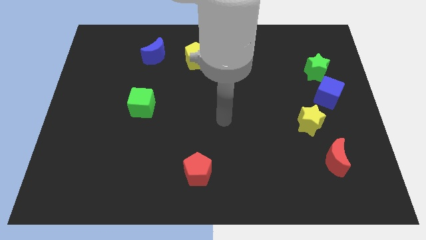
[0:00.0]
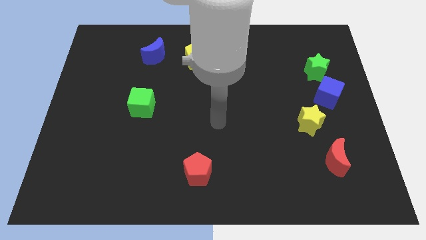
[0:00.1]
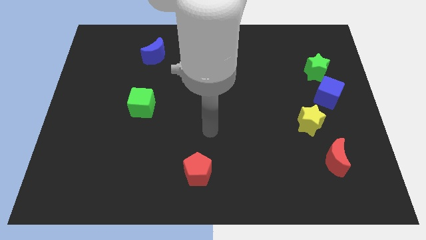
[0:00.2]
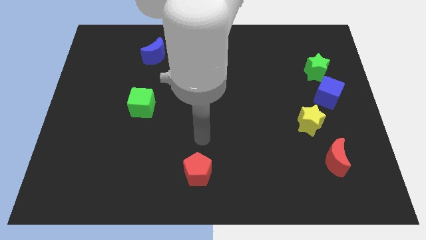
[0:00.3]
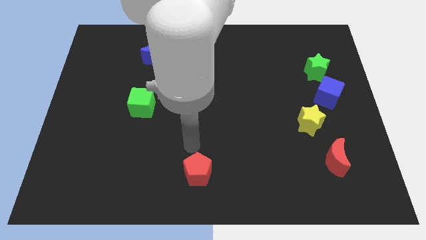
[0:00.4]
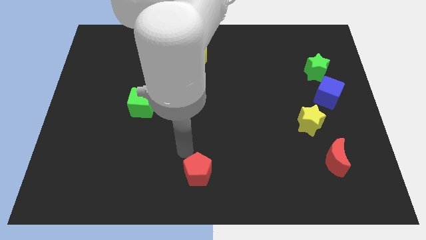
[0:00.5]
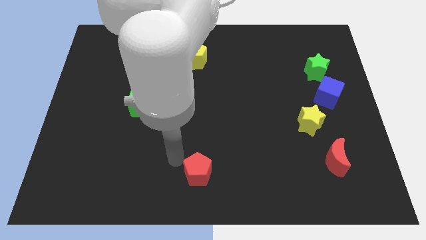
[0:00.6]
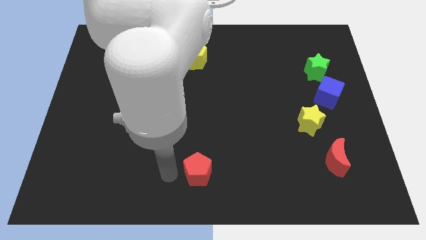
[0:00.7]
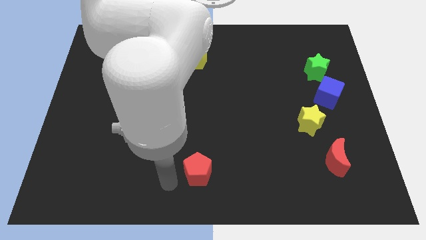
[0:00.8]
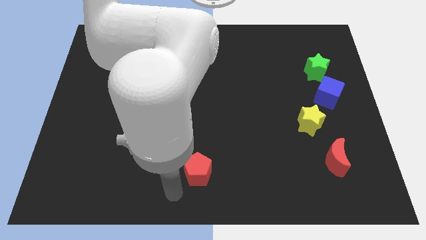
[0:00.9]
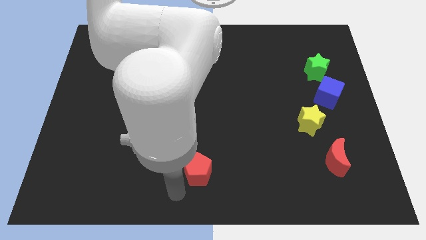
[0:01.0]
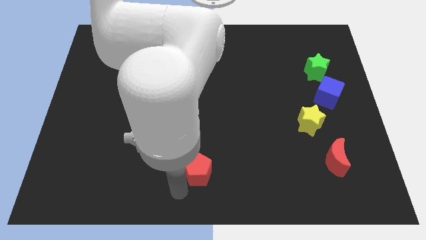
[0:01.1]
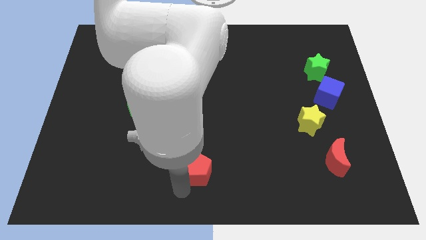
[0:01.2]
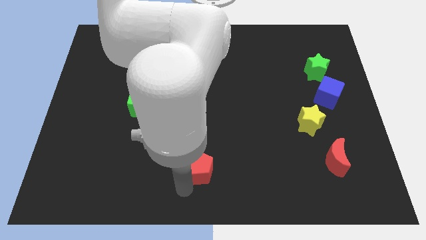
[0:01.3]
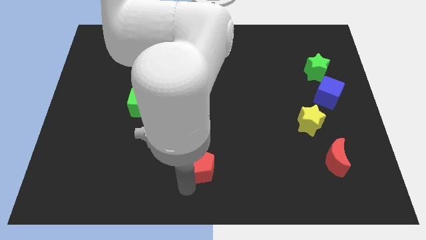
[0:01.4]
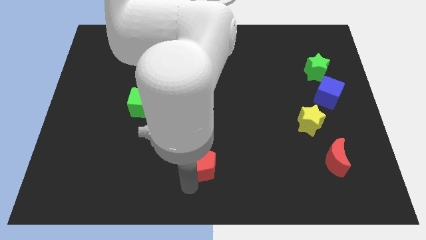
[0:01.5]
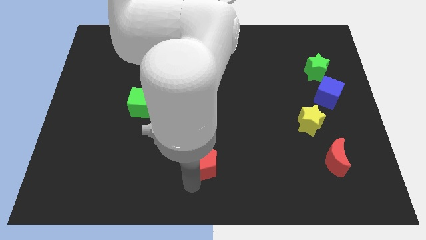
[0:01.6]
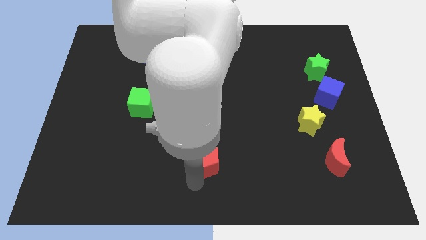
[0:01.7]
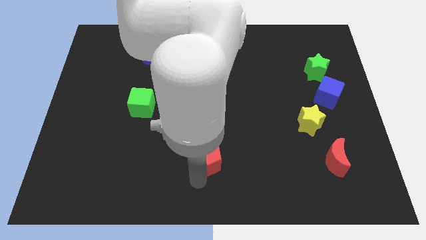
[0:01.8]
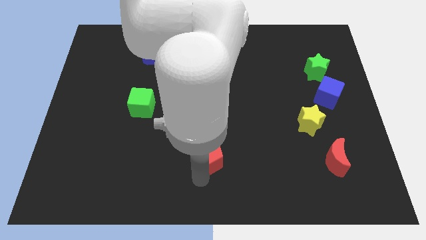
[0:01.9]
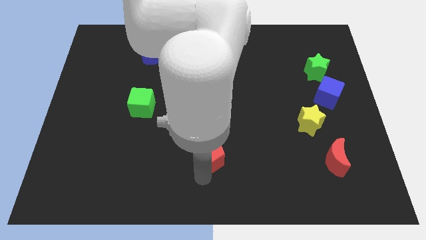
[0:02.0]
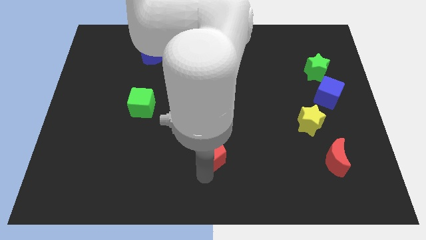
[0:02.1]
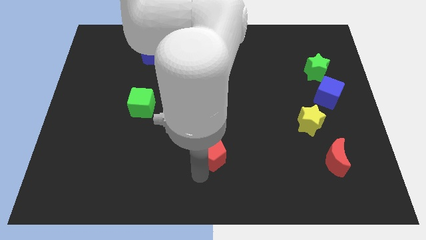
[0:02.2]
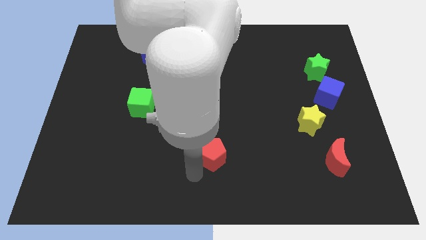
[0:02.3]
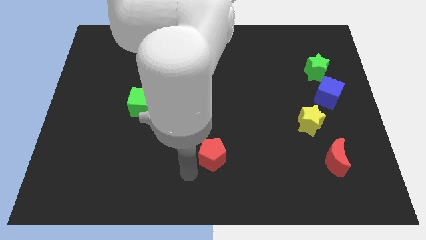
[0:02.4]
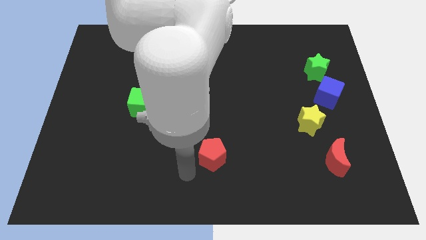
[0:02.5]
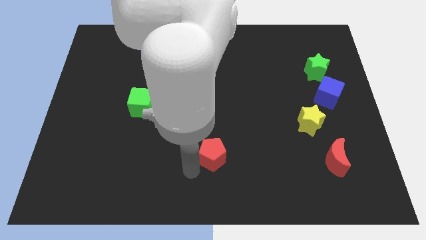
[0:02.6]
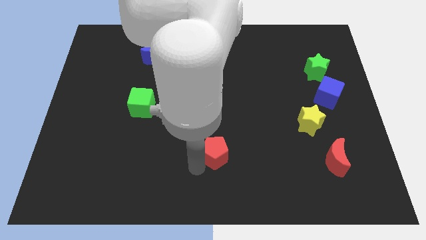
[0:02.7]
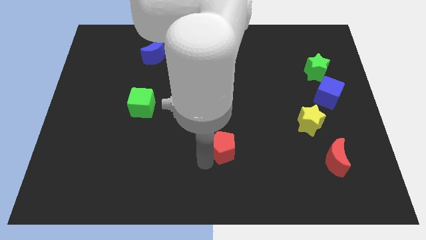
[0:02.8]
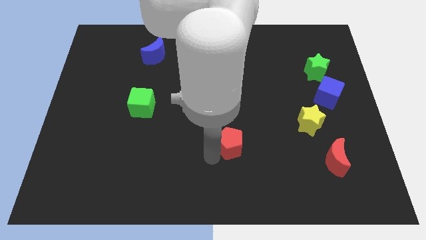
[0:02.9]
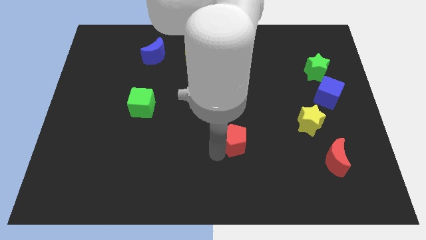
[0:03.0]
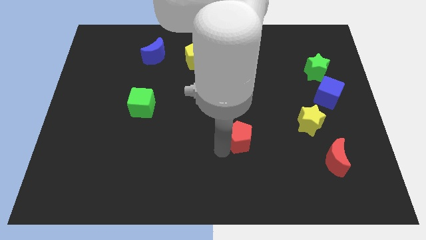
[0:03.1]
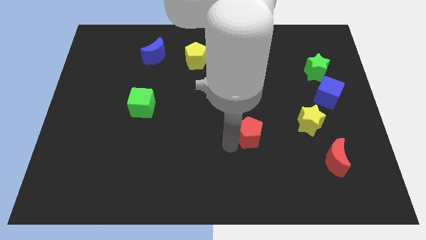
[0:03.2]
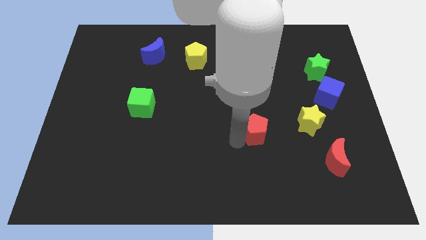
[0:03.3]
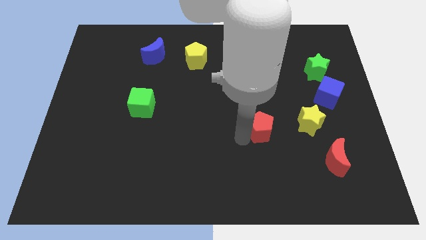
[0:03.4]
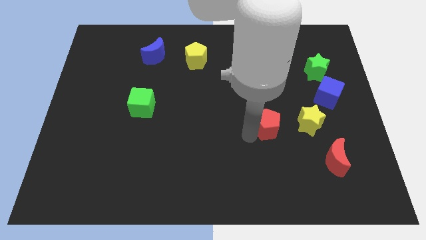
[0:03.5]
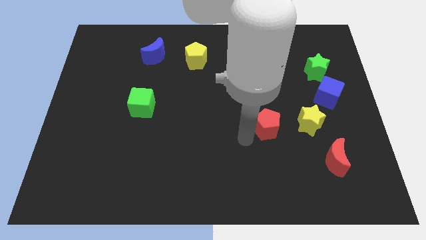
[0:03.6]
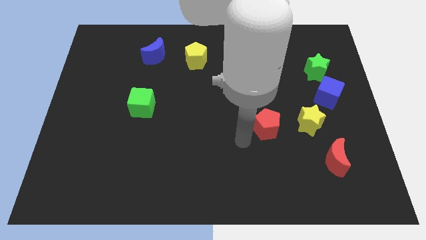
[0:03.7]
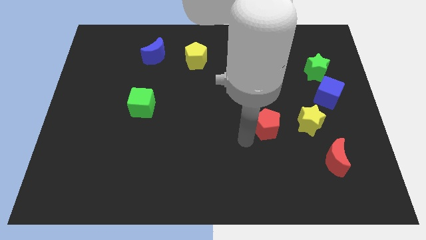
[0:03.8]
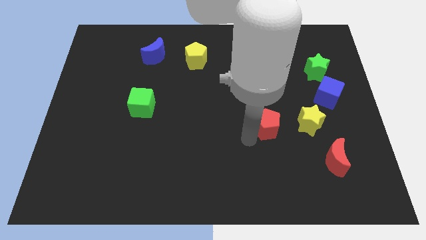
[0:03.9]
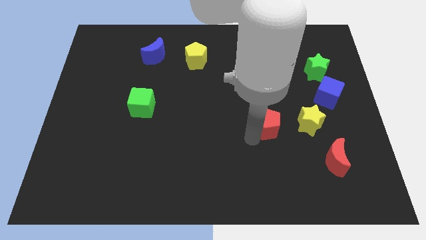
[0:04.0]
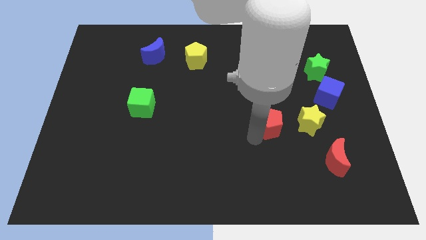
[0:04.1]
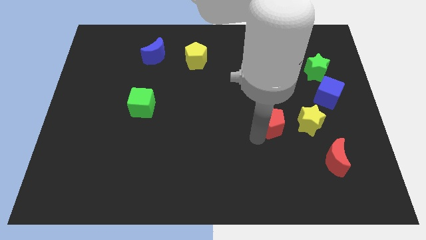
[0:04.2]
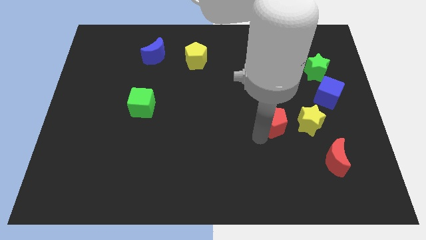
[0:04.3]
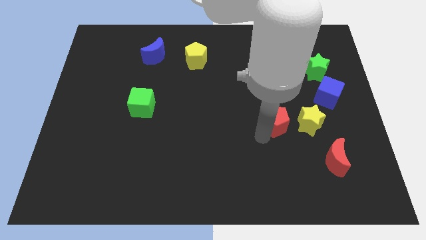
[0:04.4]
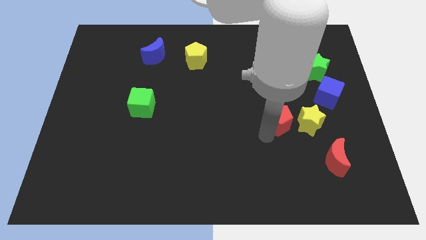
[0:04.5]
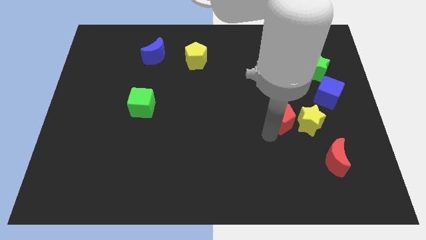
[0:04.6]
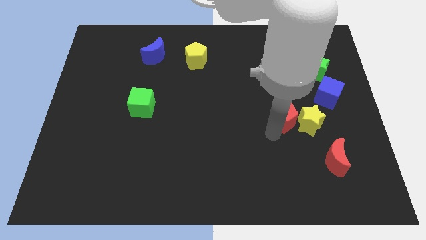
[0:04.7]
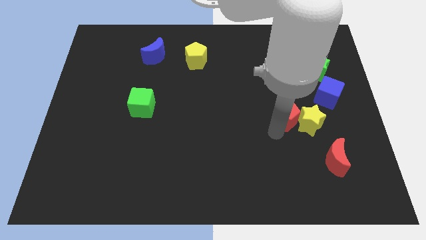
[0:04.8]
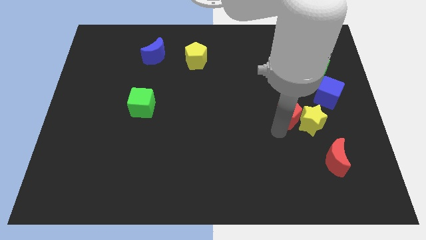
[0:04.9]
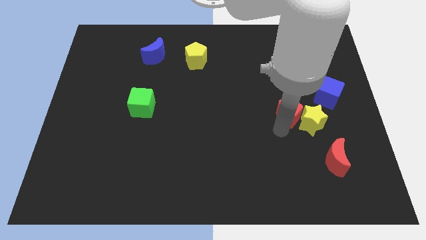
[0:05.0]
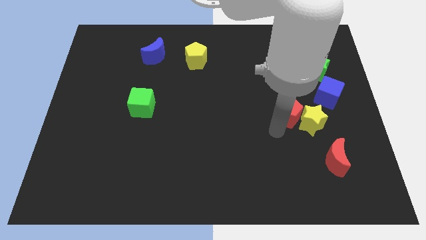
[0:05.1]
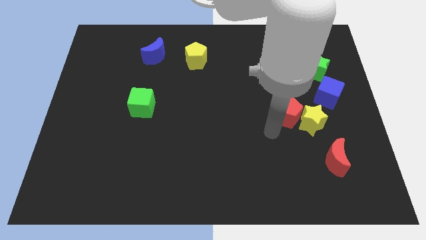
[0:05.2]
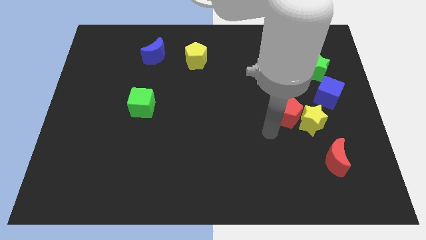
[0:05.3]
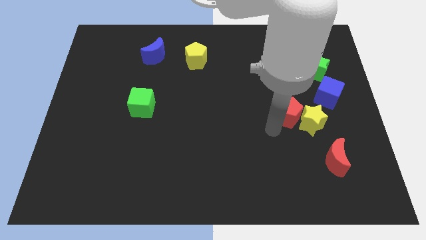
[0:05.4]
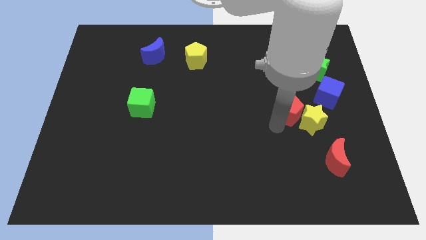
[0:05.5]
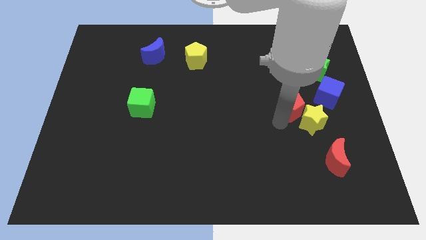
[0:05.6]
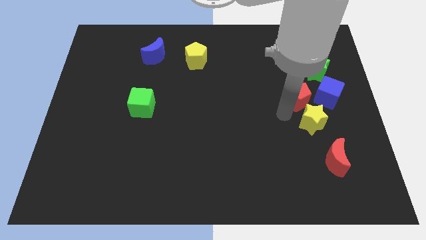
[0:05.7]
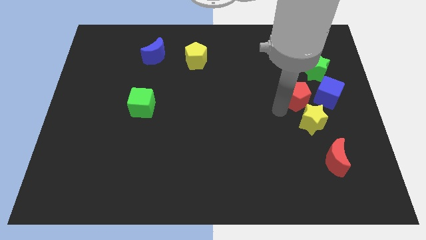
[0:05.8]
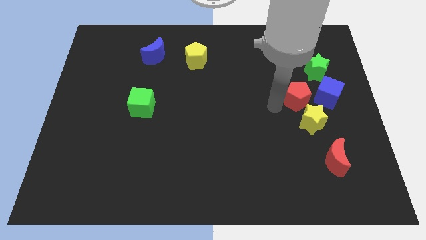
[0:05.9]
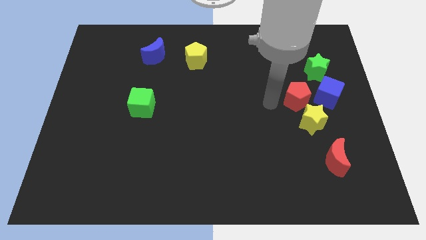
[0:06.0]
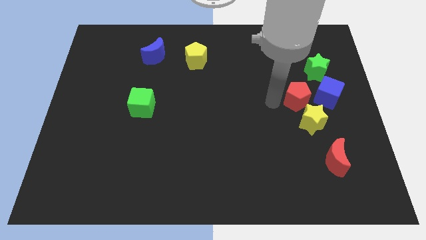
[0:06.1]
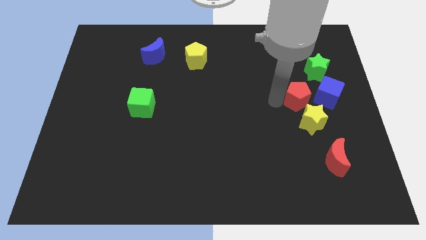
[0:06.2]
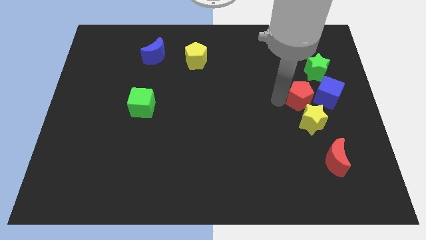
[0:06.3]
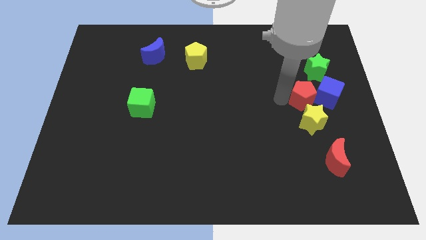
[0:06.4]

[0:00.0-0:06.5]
put the red pentagon towards the blue cube

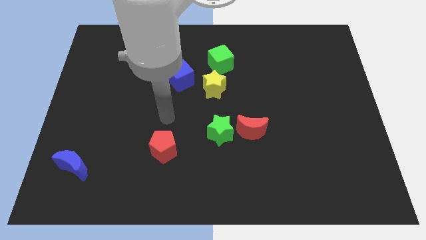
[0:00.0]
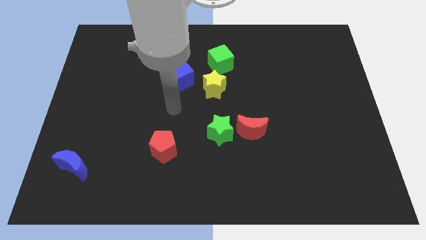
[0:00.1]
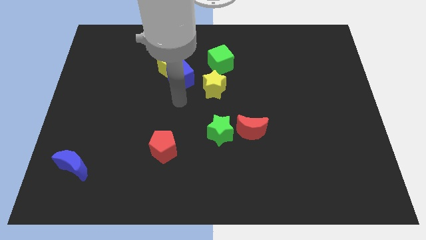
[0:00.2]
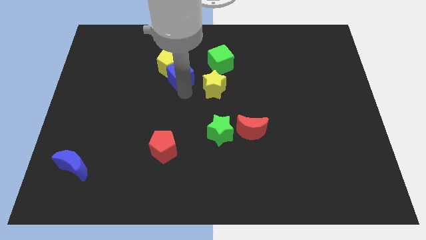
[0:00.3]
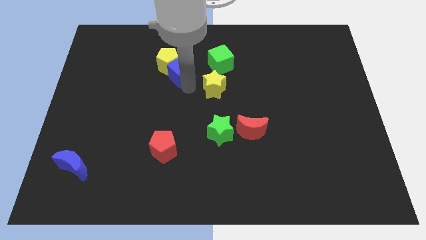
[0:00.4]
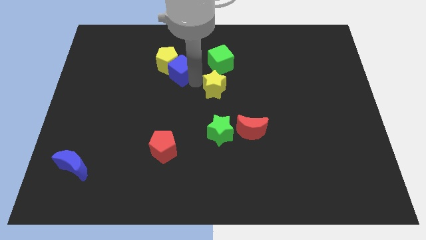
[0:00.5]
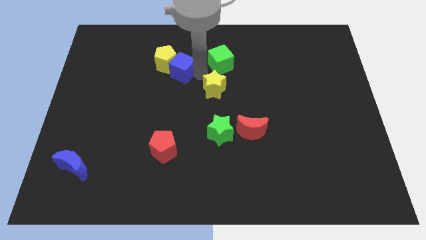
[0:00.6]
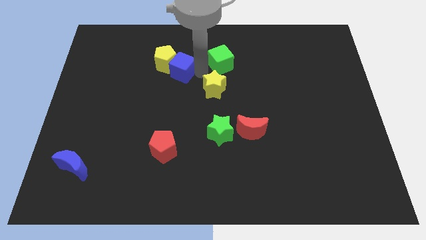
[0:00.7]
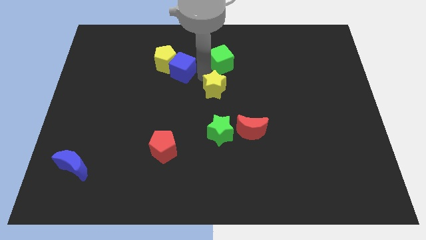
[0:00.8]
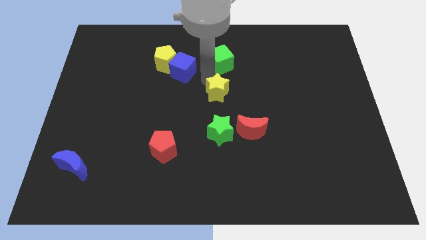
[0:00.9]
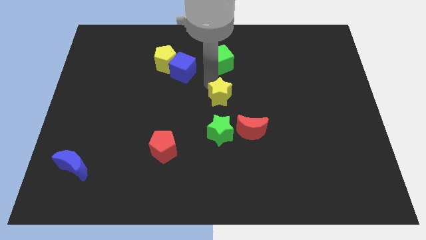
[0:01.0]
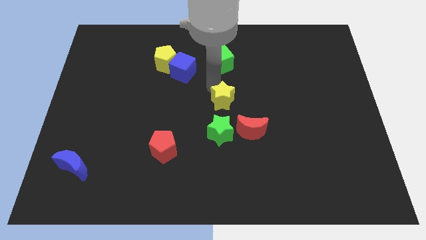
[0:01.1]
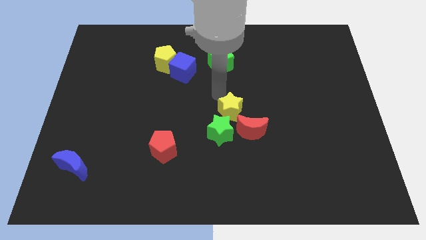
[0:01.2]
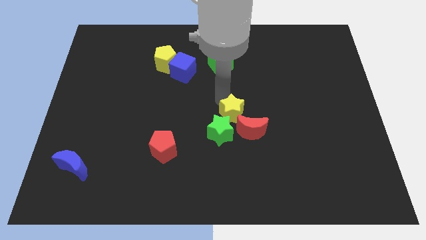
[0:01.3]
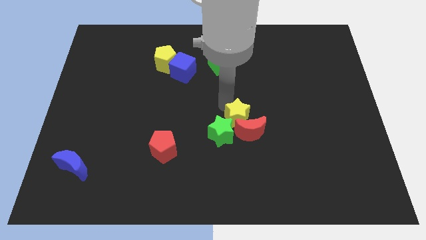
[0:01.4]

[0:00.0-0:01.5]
move the yellow star towards the red moon
